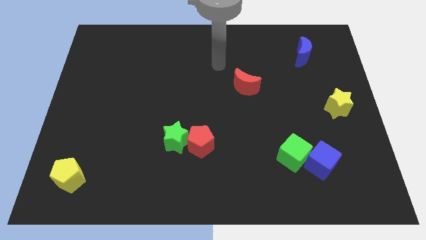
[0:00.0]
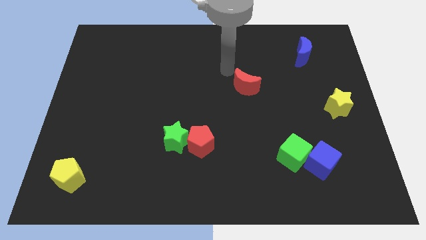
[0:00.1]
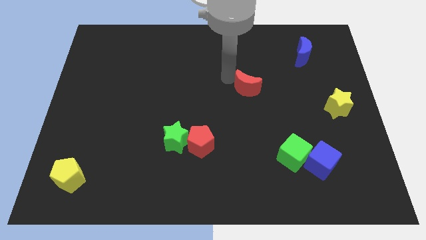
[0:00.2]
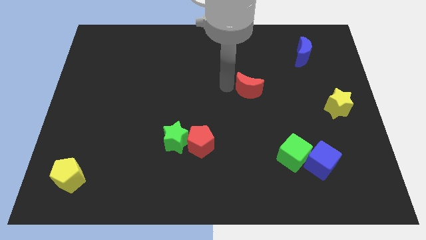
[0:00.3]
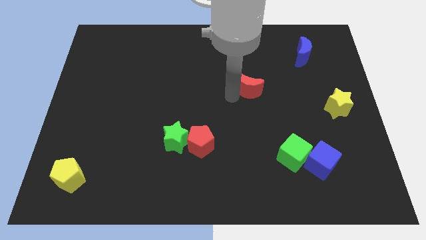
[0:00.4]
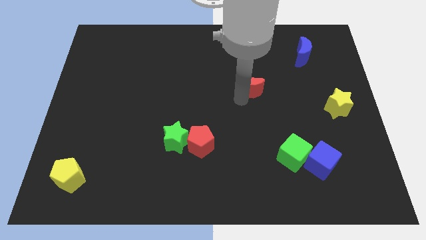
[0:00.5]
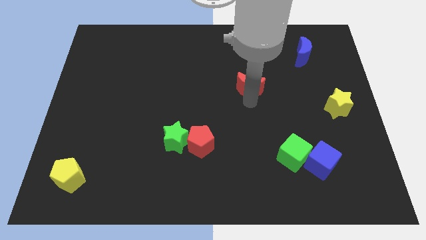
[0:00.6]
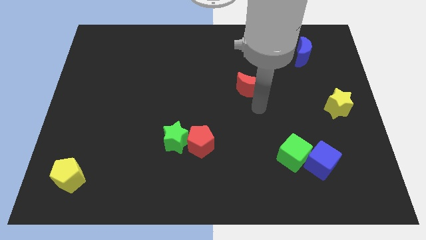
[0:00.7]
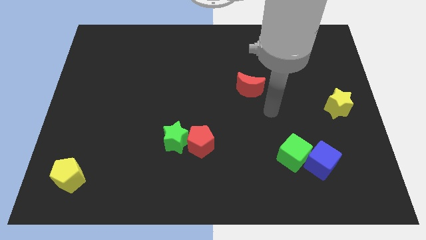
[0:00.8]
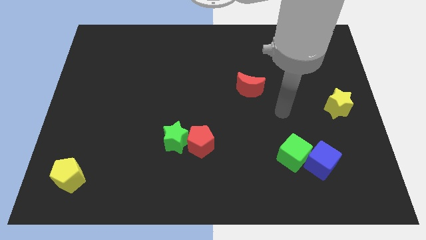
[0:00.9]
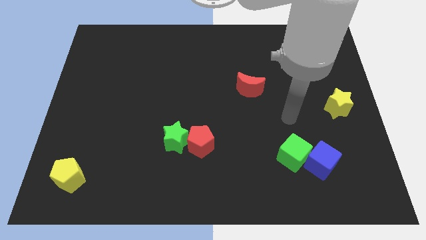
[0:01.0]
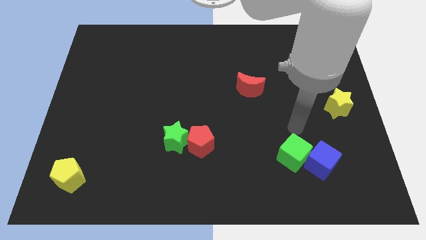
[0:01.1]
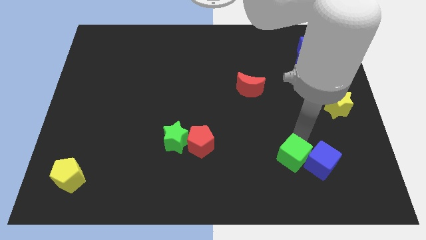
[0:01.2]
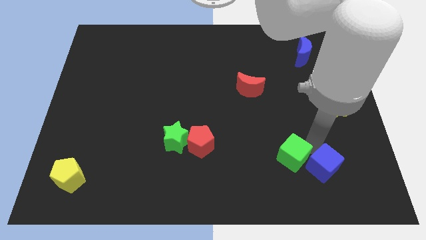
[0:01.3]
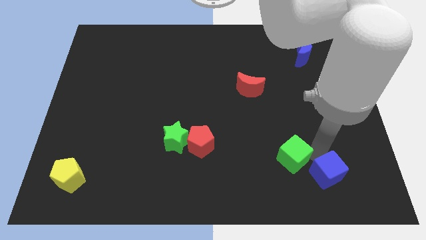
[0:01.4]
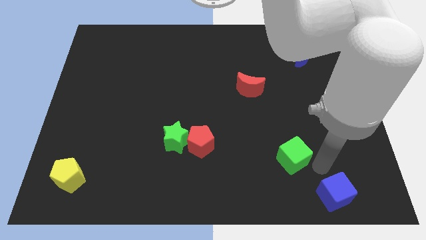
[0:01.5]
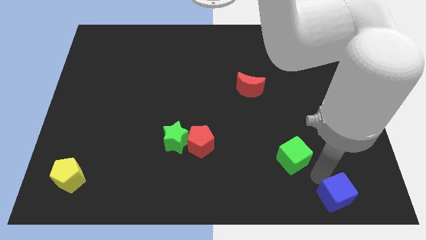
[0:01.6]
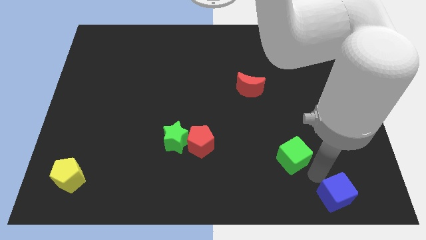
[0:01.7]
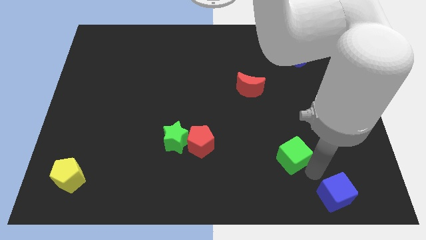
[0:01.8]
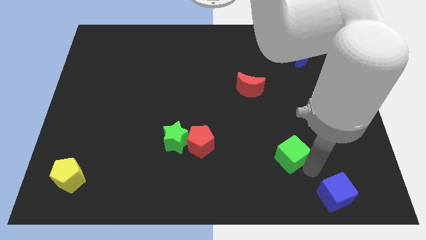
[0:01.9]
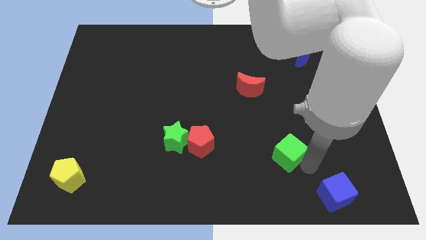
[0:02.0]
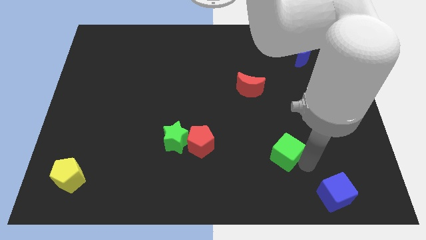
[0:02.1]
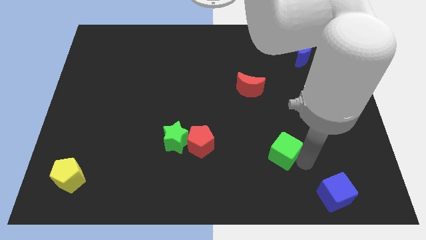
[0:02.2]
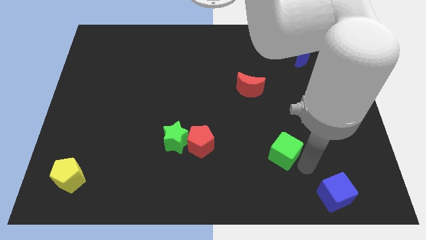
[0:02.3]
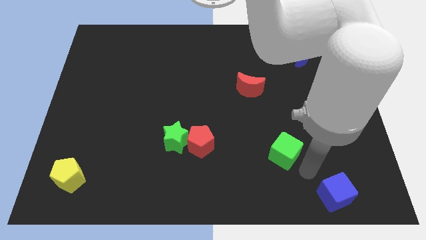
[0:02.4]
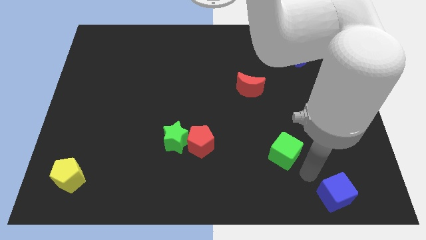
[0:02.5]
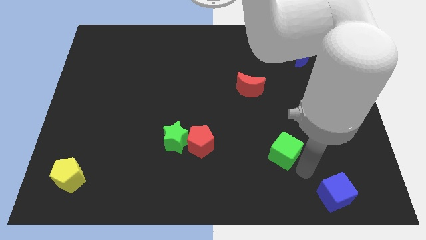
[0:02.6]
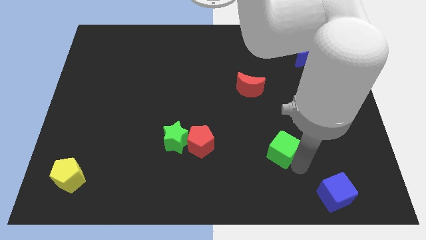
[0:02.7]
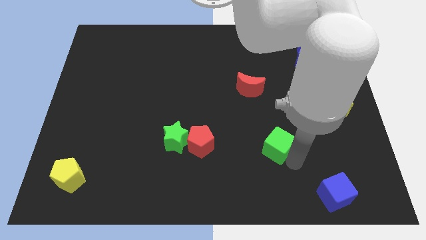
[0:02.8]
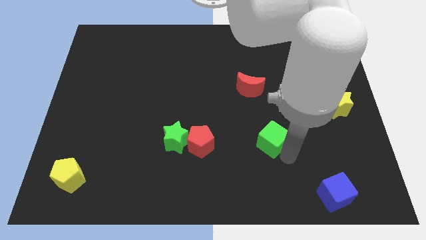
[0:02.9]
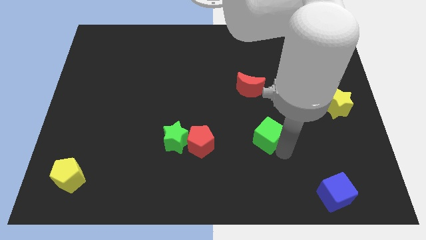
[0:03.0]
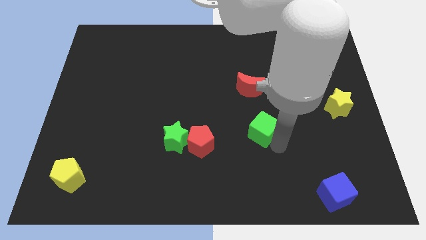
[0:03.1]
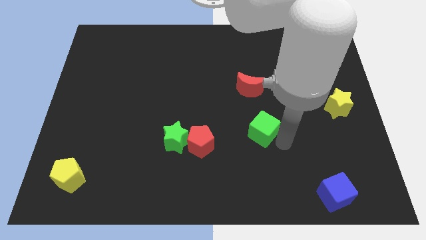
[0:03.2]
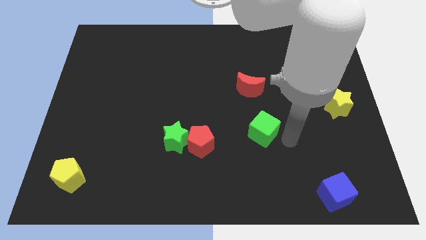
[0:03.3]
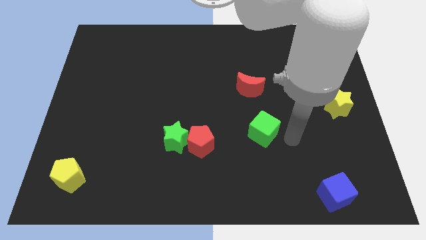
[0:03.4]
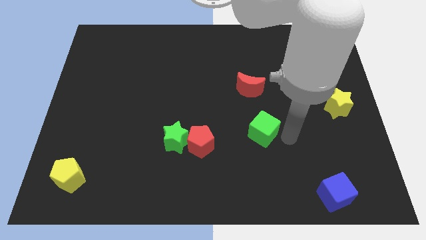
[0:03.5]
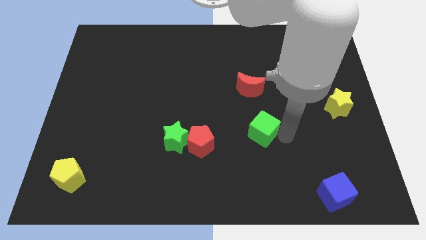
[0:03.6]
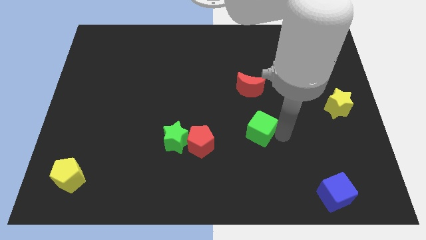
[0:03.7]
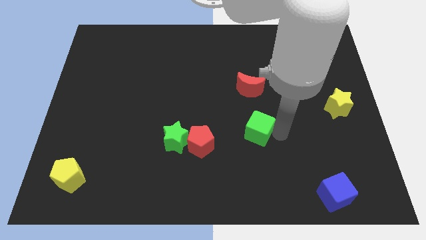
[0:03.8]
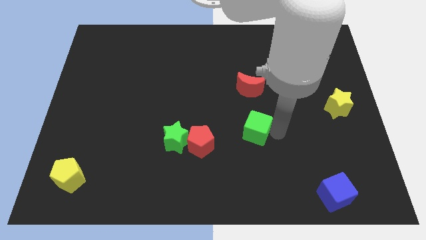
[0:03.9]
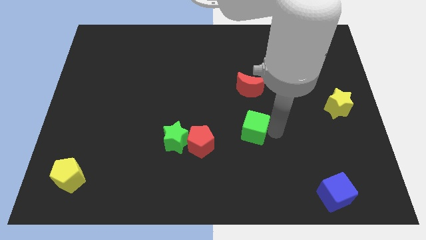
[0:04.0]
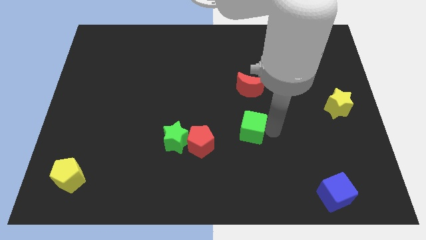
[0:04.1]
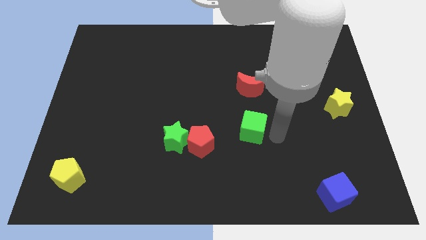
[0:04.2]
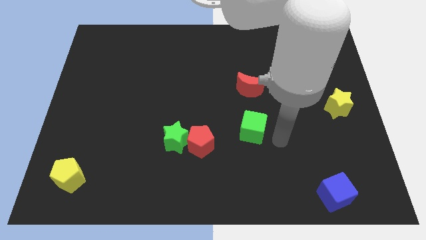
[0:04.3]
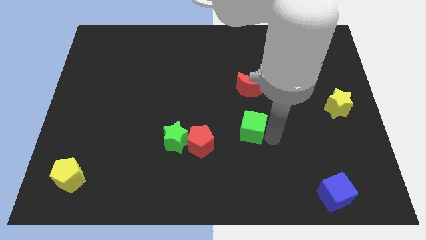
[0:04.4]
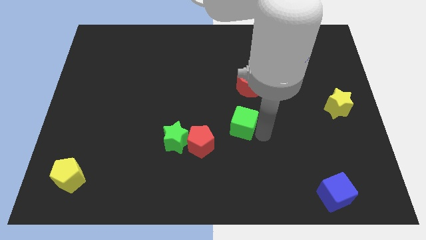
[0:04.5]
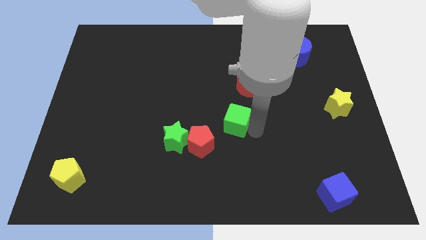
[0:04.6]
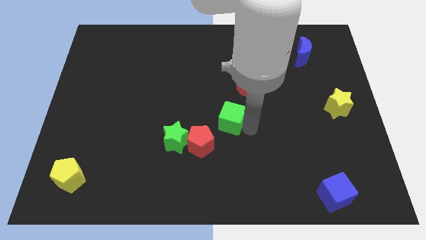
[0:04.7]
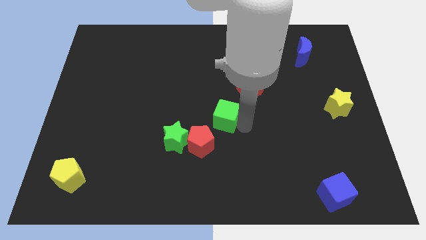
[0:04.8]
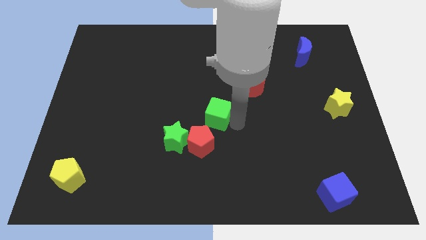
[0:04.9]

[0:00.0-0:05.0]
push the green cube to the top of the red pentagon

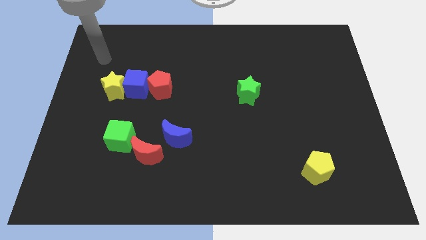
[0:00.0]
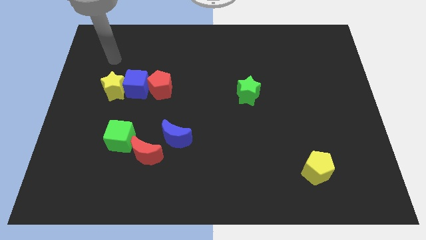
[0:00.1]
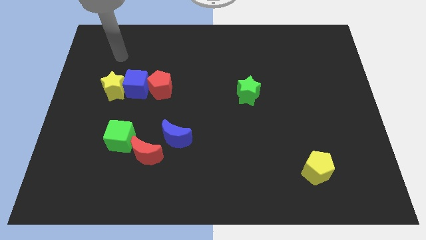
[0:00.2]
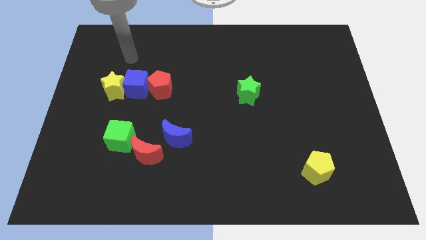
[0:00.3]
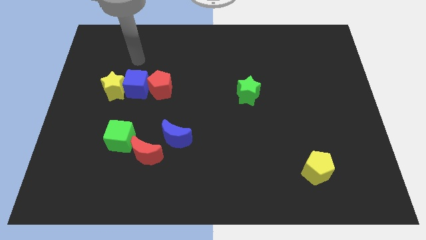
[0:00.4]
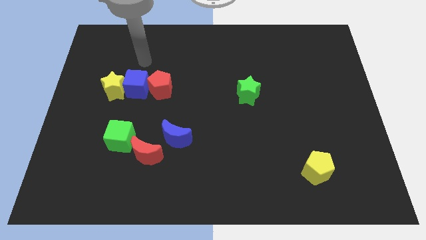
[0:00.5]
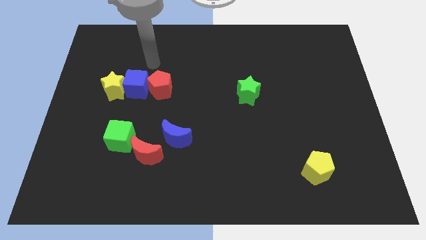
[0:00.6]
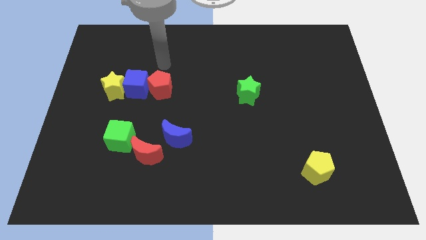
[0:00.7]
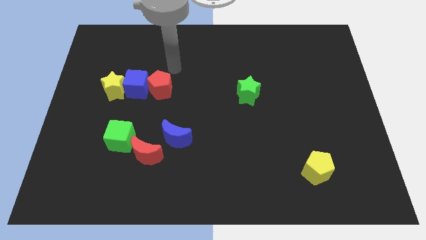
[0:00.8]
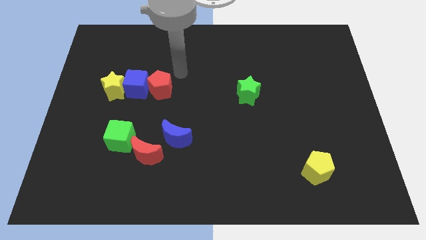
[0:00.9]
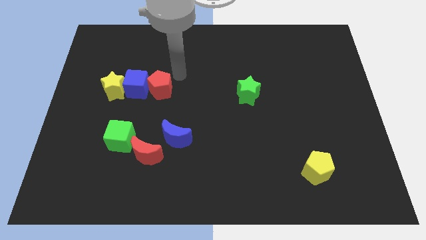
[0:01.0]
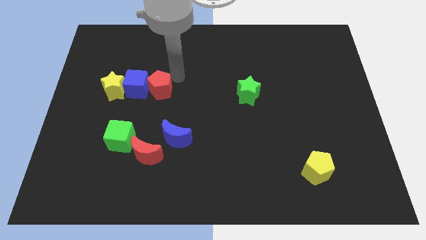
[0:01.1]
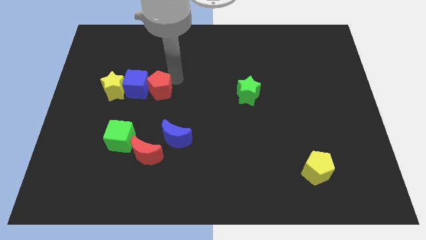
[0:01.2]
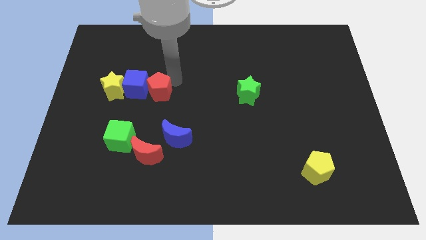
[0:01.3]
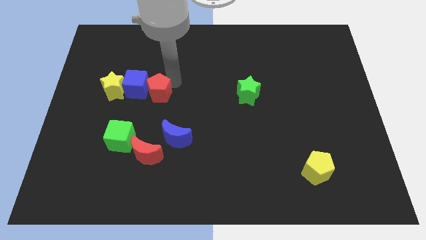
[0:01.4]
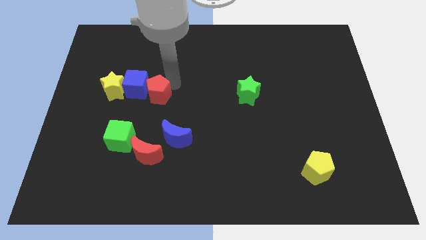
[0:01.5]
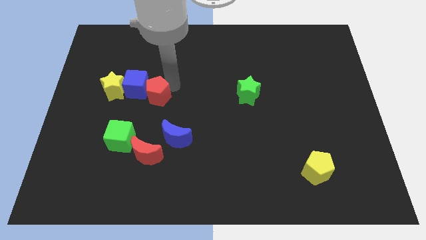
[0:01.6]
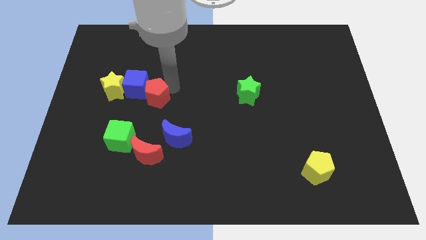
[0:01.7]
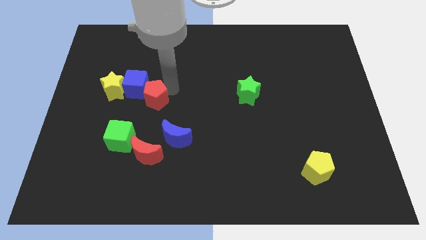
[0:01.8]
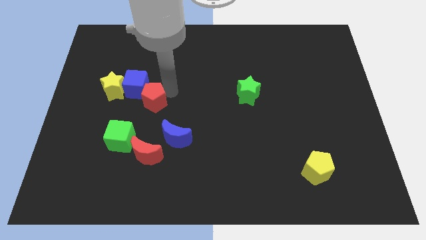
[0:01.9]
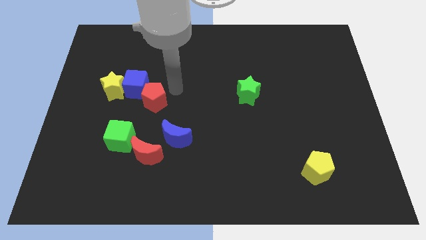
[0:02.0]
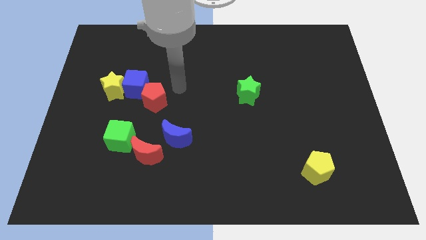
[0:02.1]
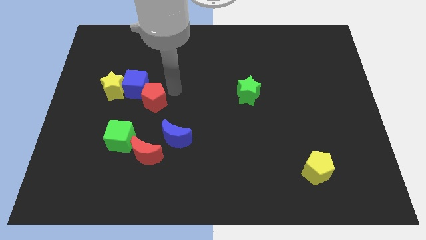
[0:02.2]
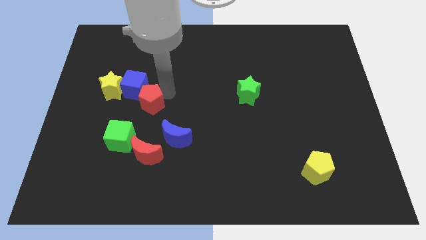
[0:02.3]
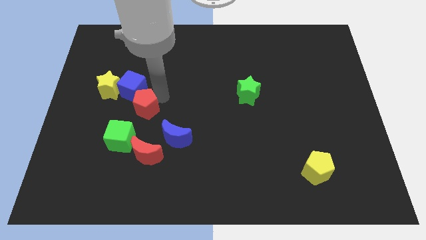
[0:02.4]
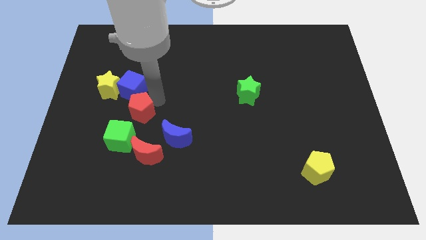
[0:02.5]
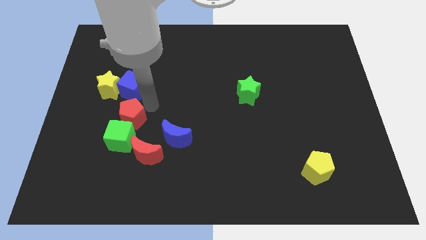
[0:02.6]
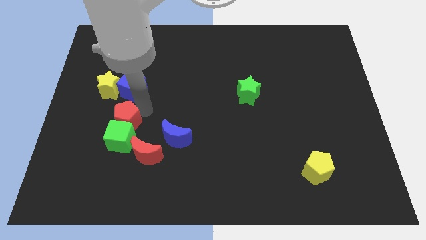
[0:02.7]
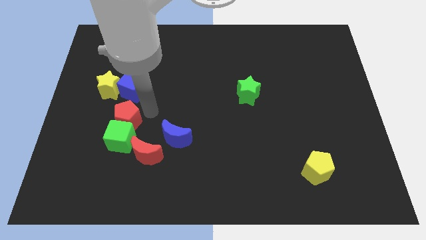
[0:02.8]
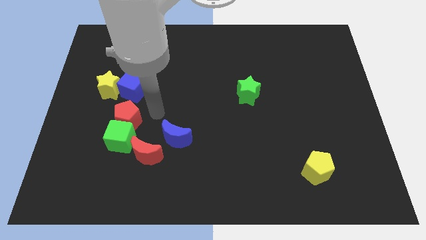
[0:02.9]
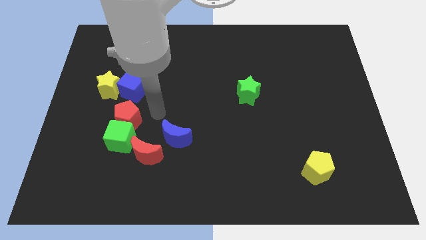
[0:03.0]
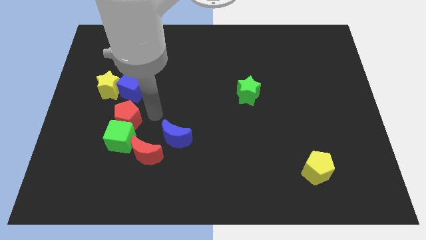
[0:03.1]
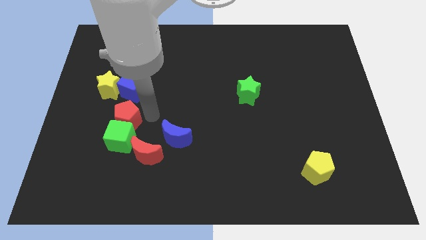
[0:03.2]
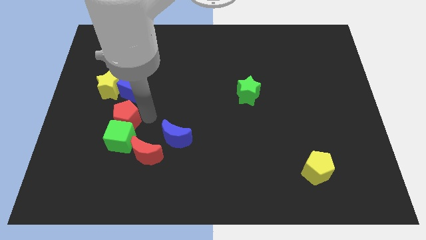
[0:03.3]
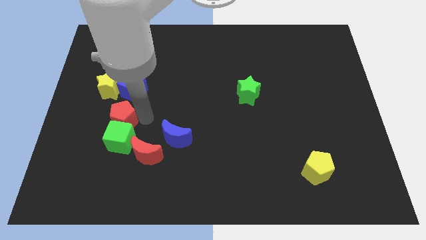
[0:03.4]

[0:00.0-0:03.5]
move the red pentagon to the bottom side of the yellow star
